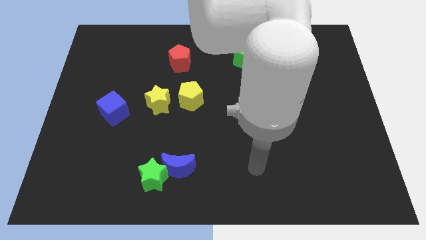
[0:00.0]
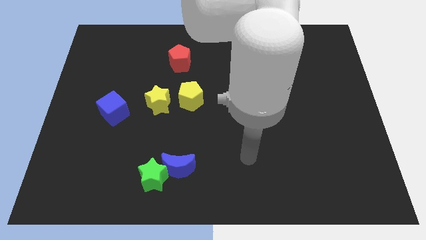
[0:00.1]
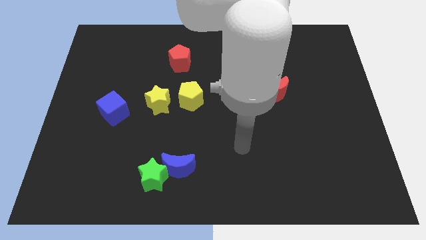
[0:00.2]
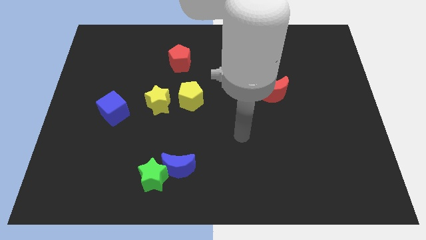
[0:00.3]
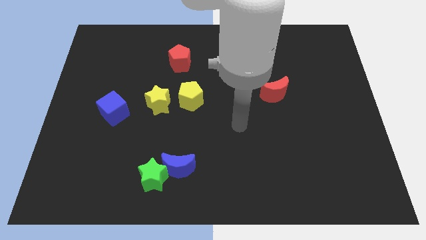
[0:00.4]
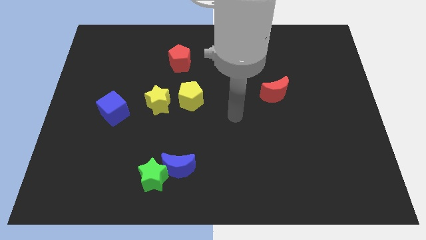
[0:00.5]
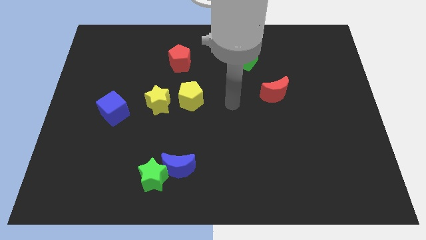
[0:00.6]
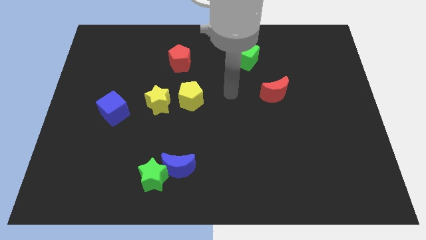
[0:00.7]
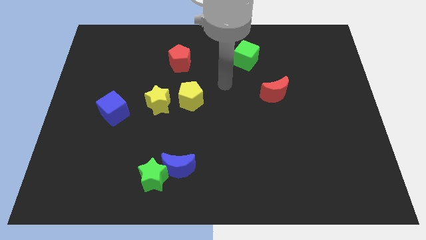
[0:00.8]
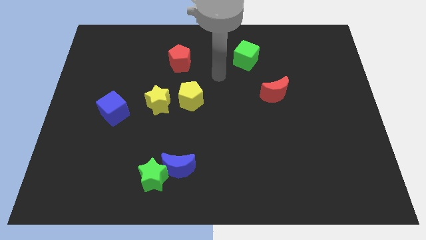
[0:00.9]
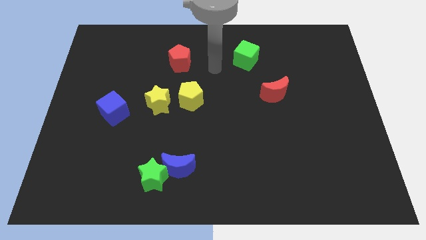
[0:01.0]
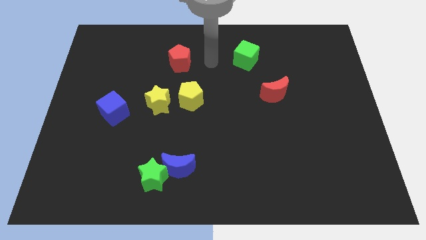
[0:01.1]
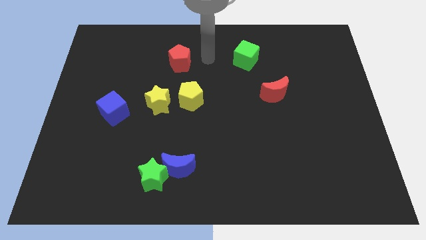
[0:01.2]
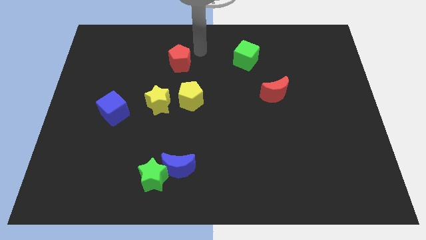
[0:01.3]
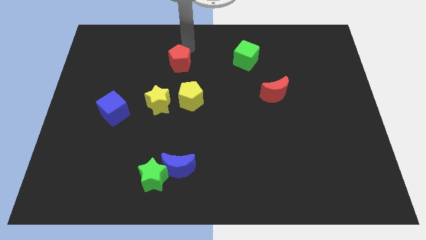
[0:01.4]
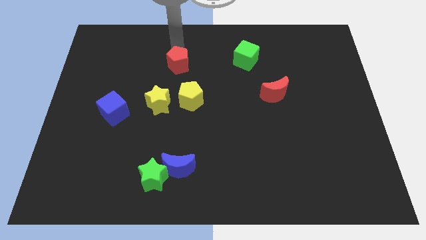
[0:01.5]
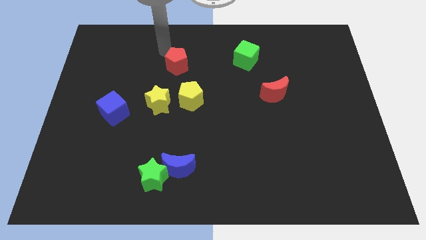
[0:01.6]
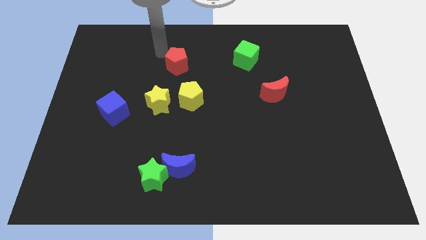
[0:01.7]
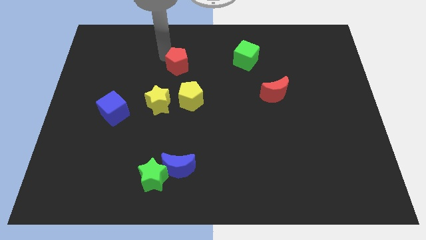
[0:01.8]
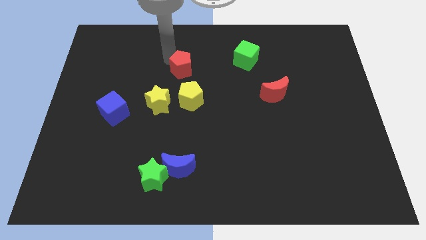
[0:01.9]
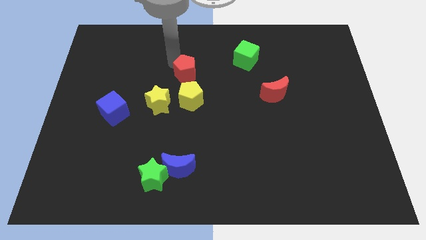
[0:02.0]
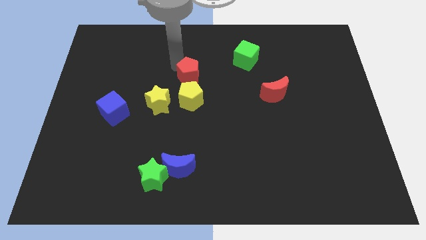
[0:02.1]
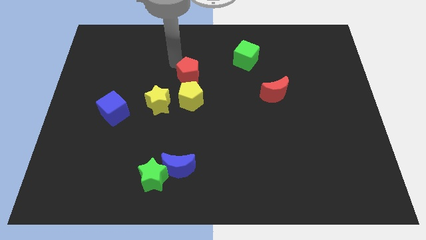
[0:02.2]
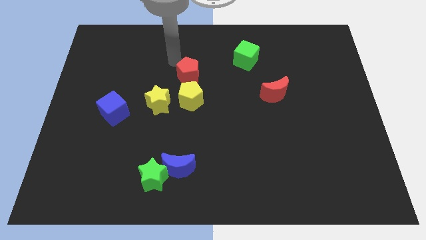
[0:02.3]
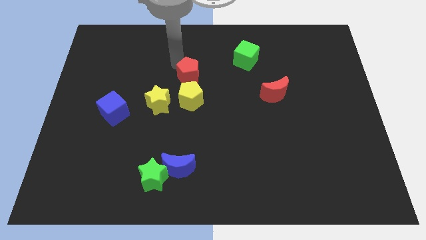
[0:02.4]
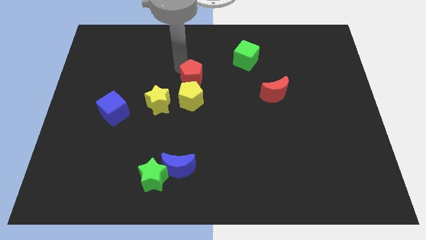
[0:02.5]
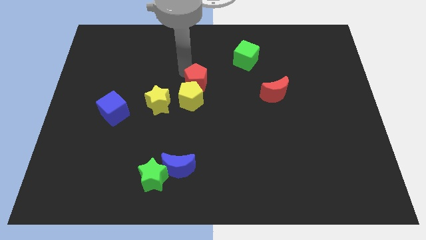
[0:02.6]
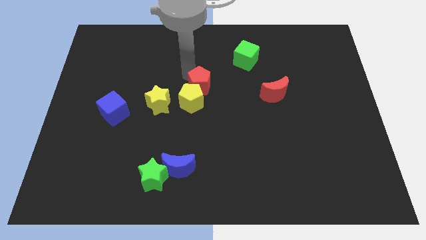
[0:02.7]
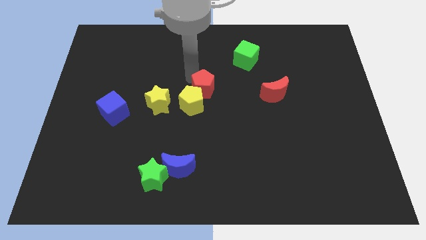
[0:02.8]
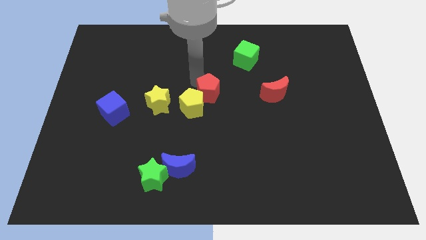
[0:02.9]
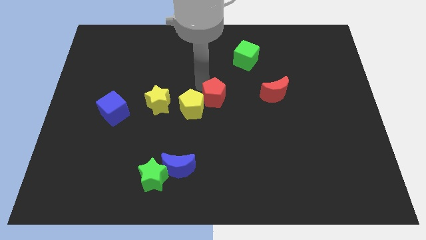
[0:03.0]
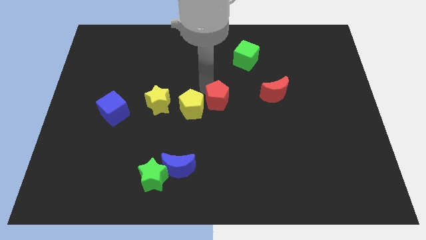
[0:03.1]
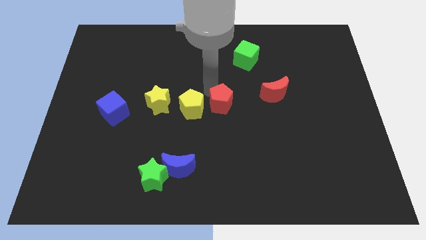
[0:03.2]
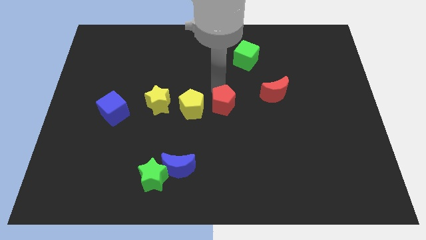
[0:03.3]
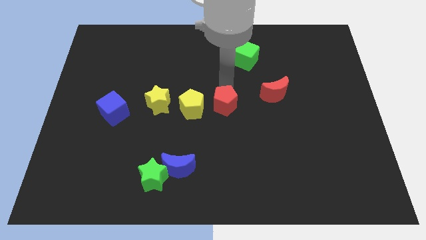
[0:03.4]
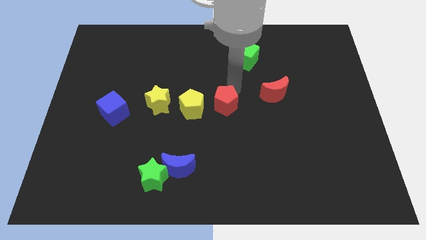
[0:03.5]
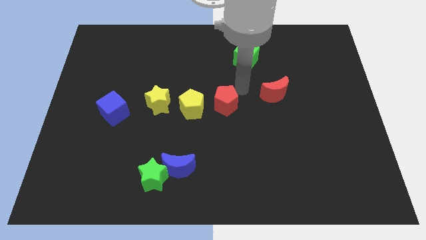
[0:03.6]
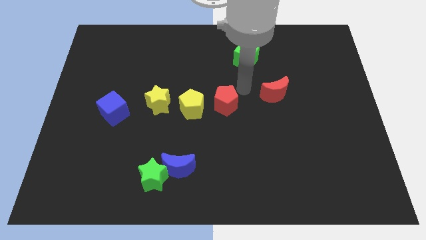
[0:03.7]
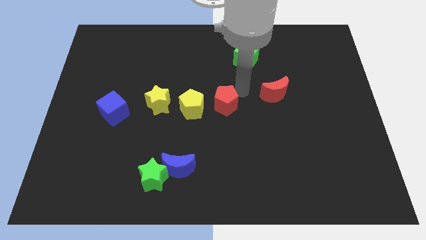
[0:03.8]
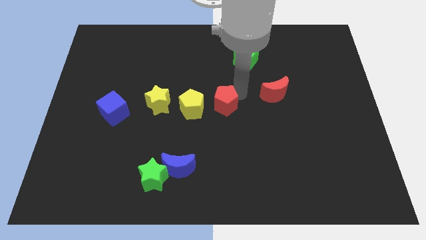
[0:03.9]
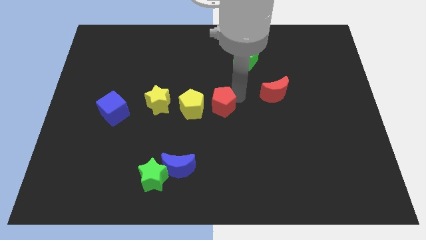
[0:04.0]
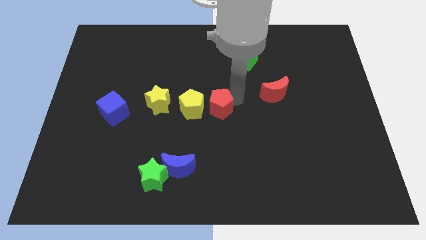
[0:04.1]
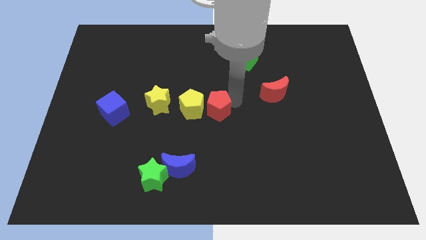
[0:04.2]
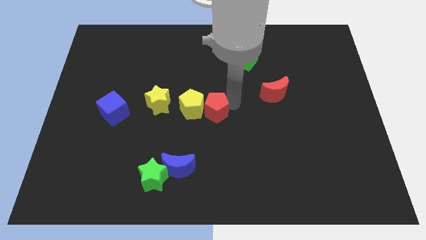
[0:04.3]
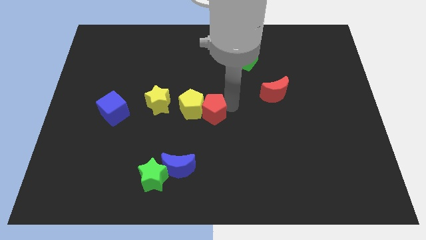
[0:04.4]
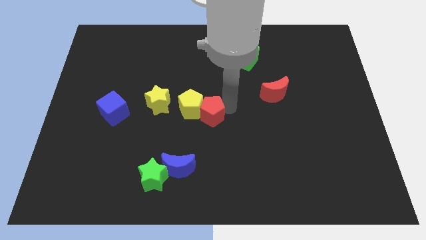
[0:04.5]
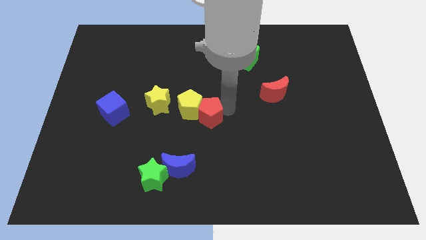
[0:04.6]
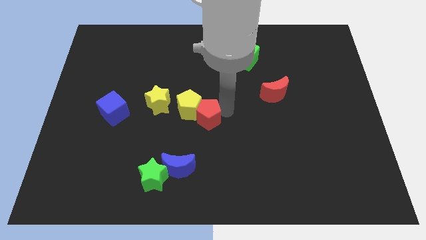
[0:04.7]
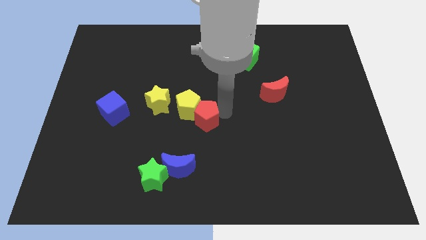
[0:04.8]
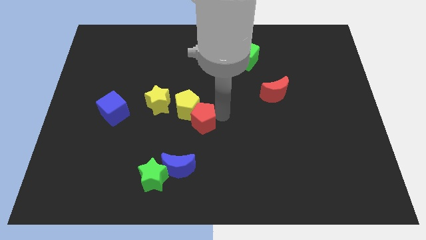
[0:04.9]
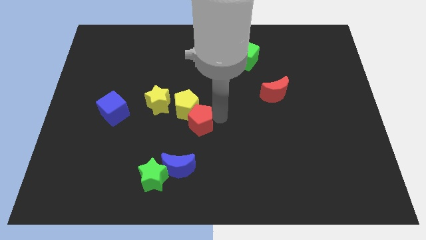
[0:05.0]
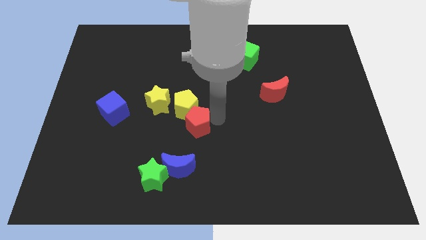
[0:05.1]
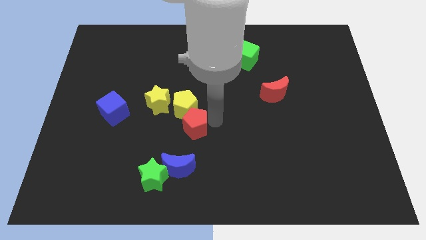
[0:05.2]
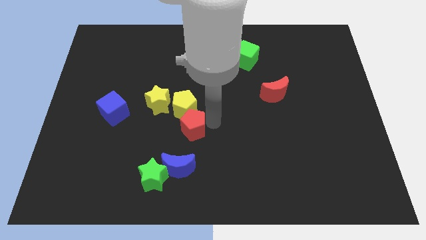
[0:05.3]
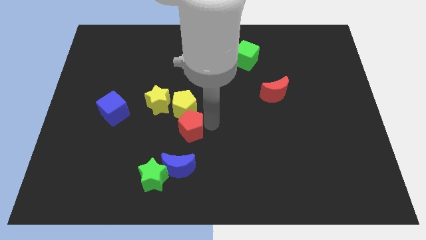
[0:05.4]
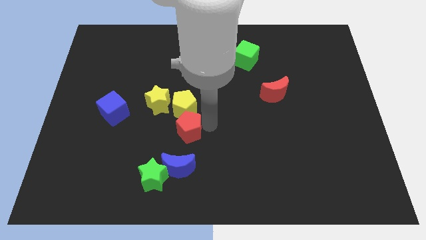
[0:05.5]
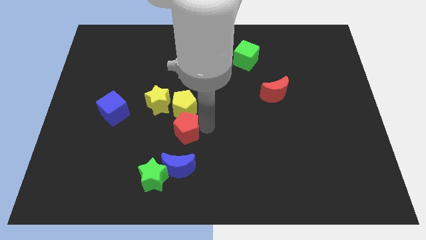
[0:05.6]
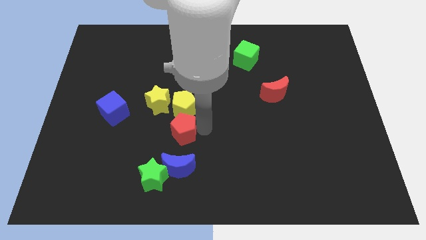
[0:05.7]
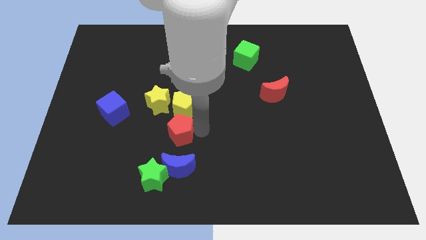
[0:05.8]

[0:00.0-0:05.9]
move the red pentagon above the green star

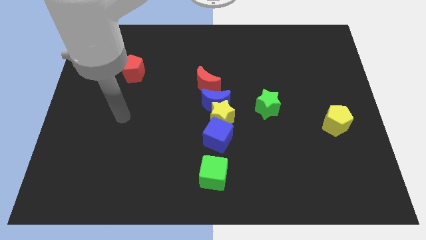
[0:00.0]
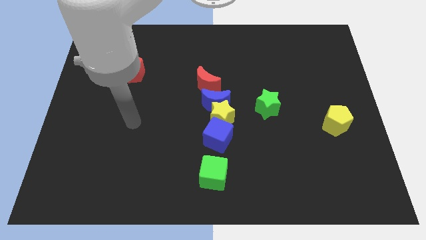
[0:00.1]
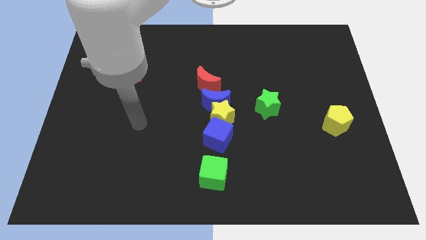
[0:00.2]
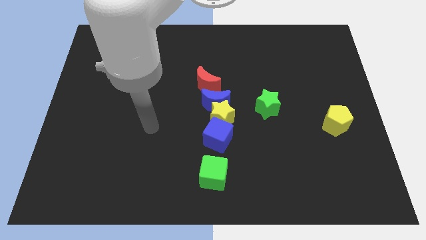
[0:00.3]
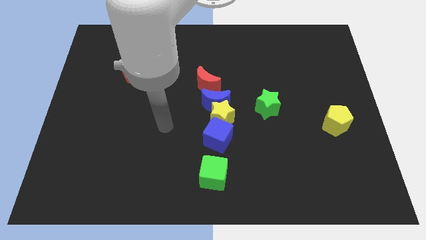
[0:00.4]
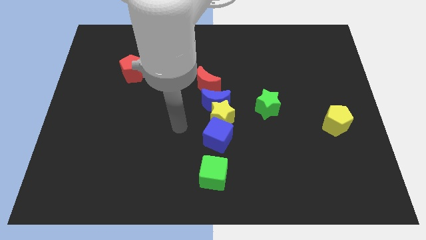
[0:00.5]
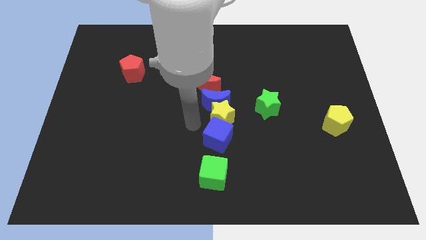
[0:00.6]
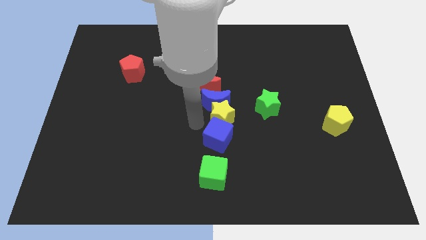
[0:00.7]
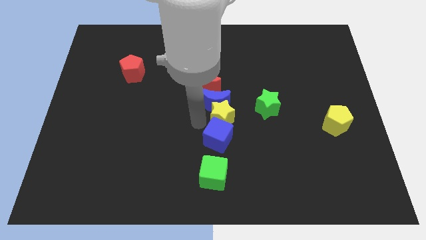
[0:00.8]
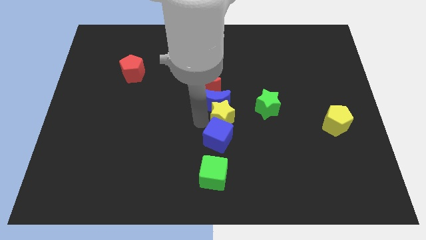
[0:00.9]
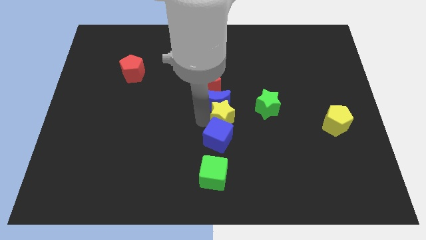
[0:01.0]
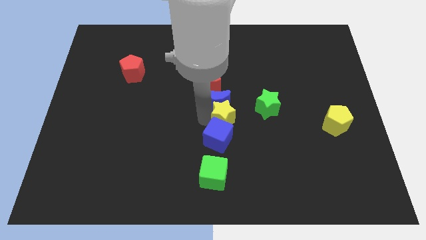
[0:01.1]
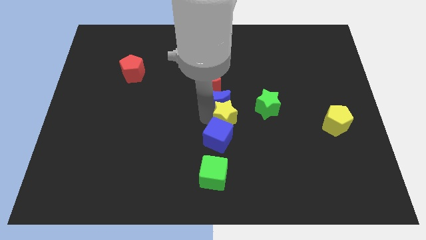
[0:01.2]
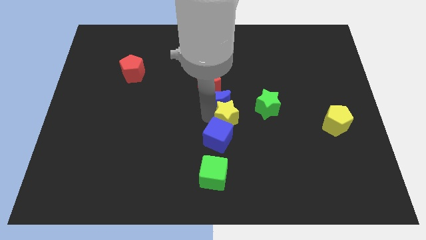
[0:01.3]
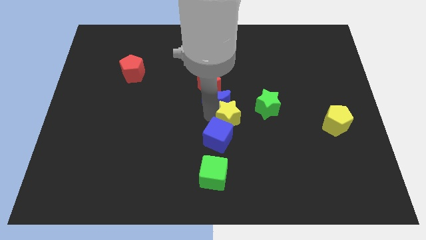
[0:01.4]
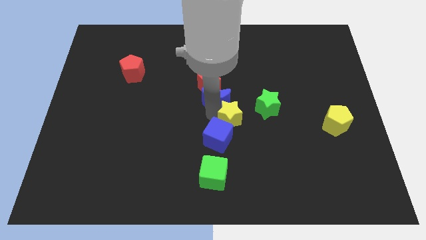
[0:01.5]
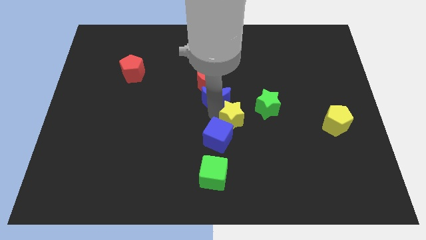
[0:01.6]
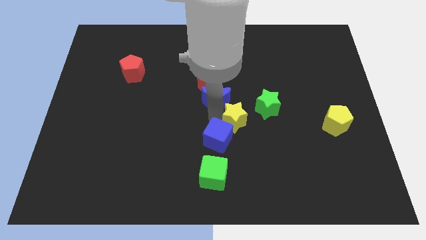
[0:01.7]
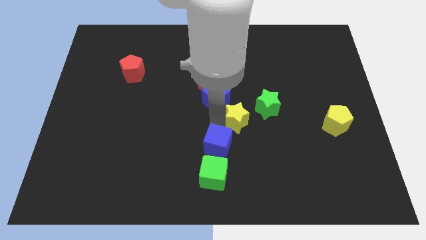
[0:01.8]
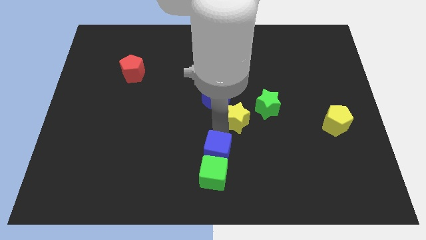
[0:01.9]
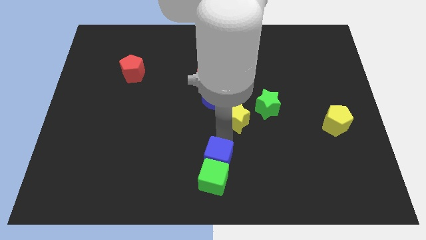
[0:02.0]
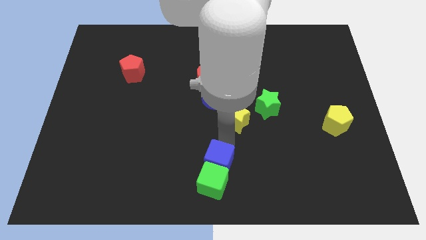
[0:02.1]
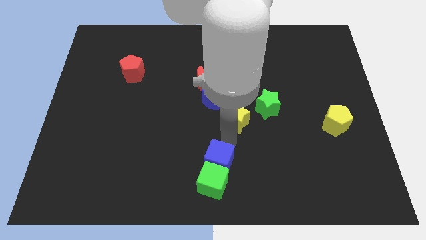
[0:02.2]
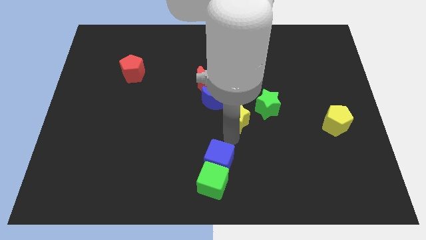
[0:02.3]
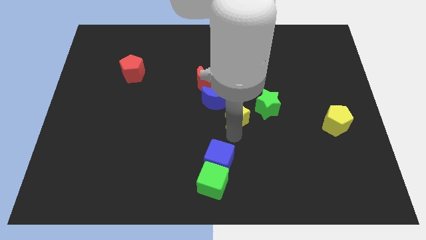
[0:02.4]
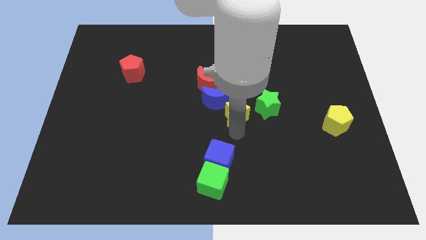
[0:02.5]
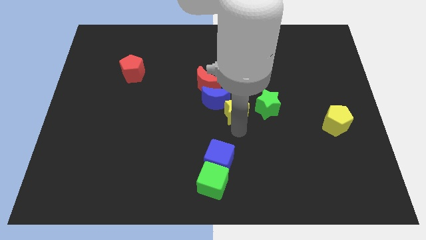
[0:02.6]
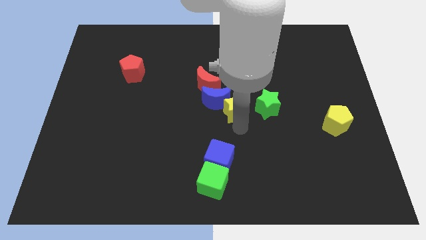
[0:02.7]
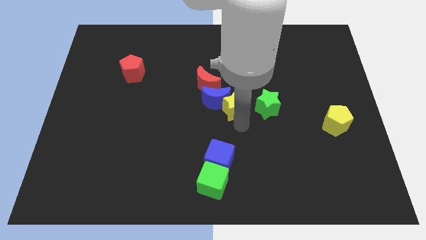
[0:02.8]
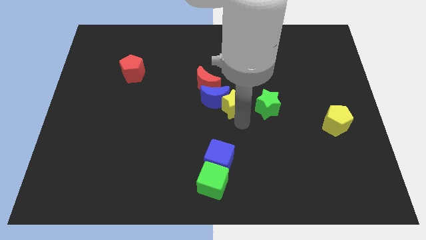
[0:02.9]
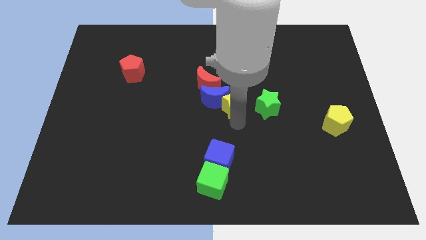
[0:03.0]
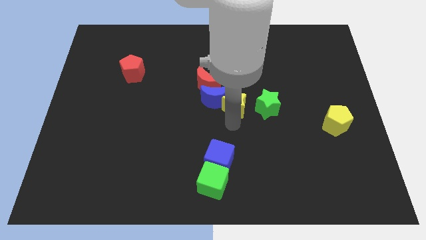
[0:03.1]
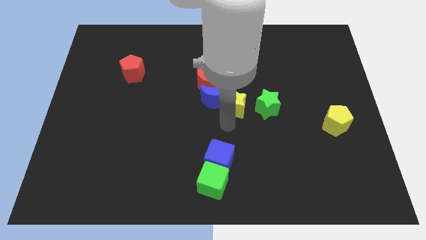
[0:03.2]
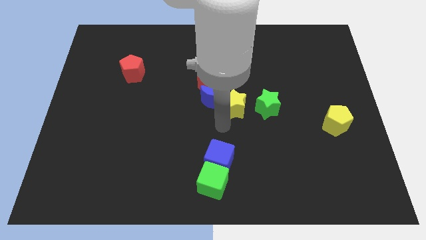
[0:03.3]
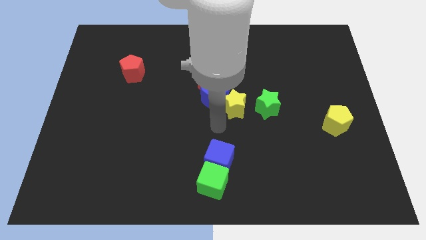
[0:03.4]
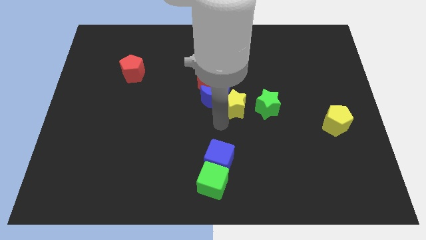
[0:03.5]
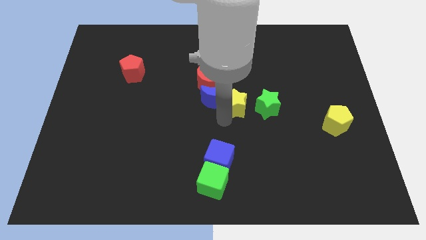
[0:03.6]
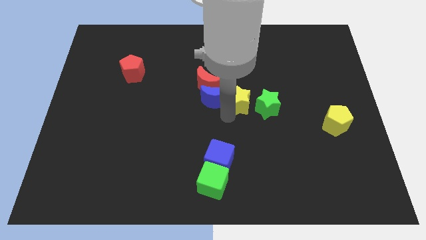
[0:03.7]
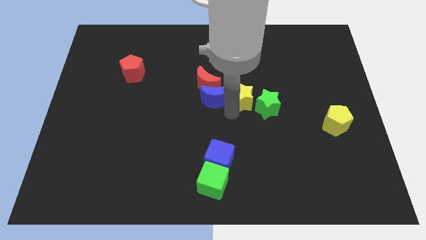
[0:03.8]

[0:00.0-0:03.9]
slide the yellow star to the right of the red moon
